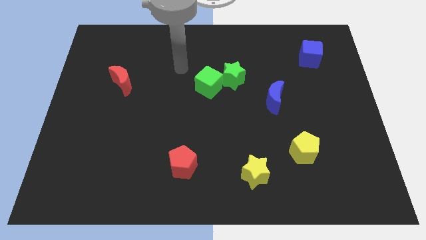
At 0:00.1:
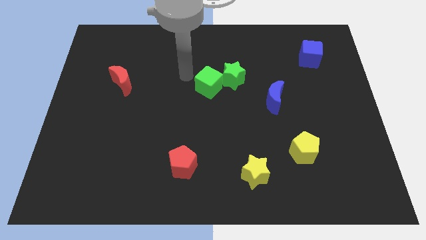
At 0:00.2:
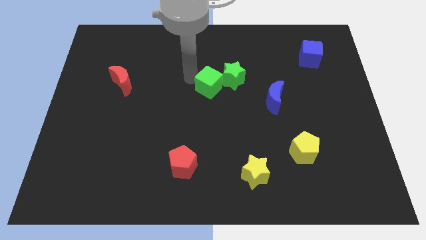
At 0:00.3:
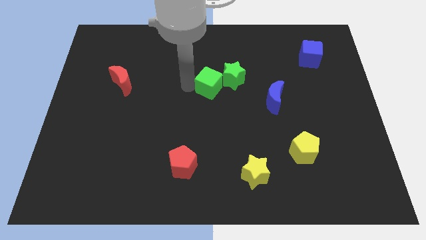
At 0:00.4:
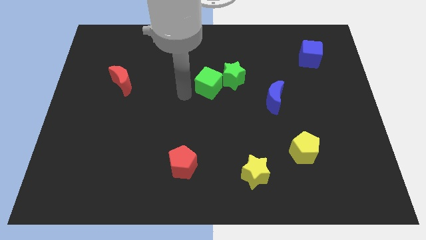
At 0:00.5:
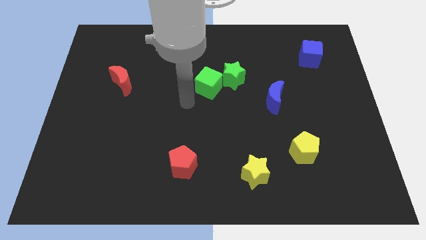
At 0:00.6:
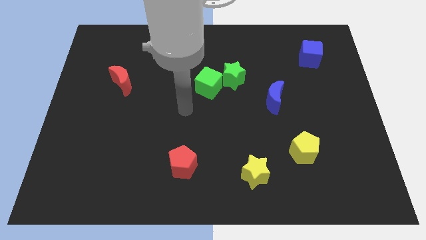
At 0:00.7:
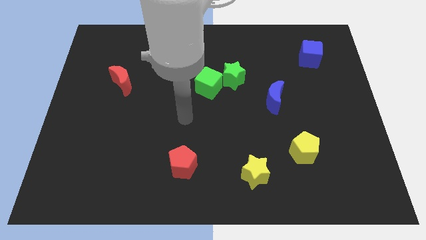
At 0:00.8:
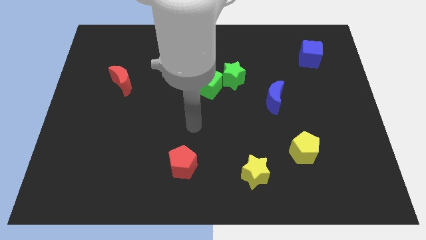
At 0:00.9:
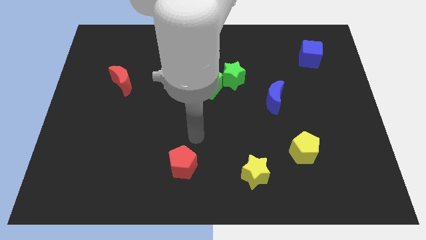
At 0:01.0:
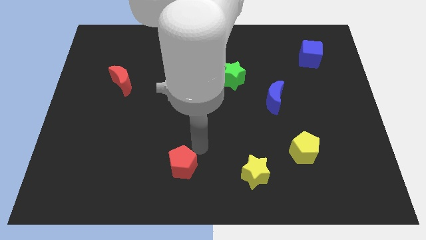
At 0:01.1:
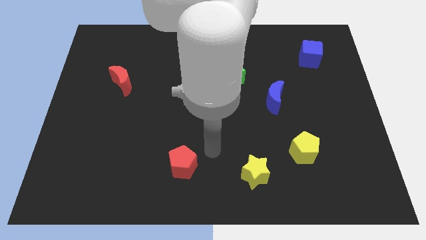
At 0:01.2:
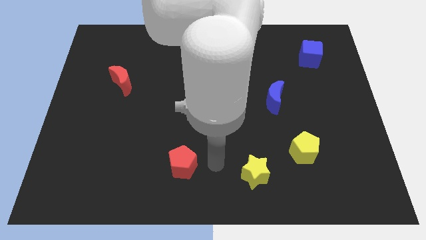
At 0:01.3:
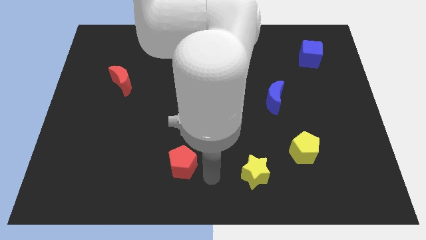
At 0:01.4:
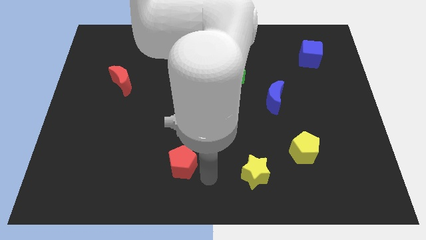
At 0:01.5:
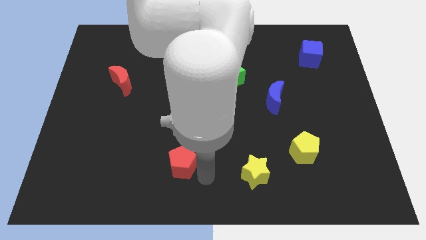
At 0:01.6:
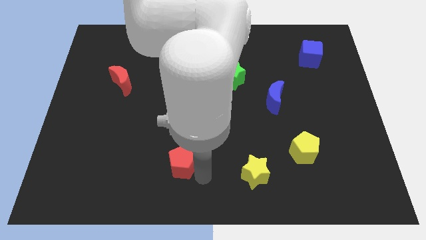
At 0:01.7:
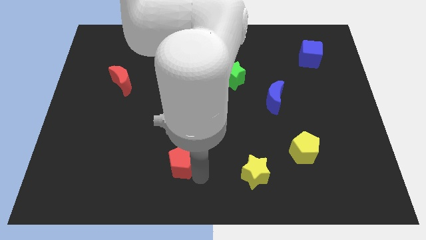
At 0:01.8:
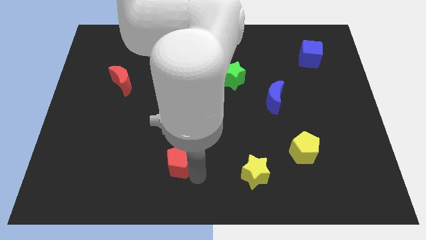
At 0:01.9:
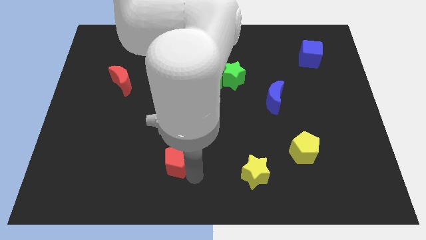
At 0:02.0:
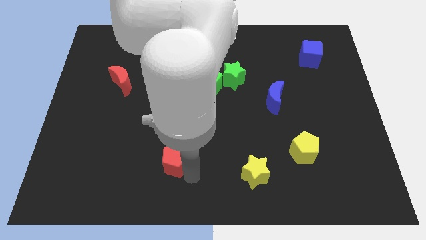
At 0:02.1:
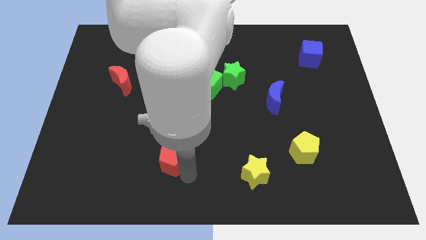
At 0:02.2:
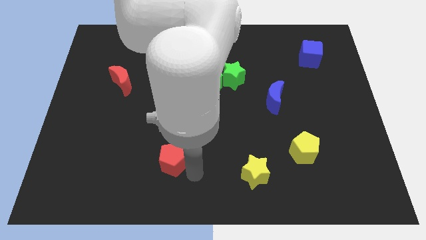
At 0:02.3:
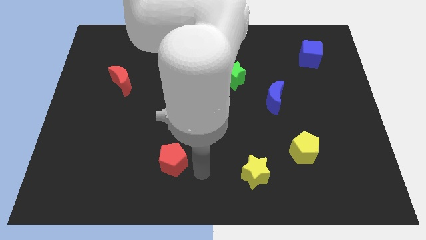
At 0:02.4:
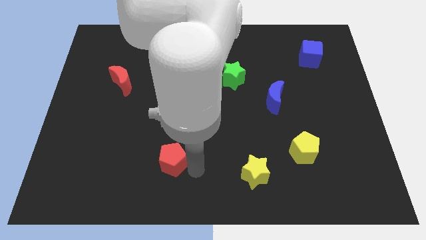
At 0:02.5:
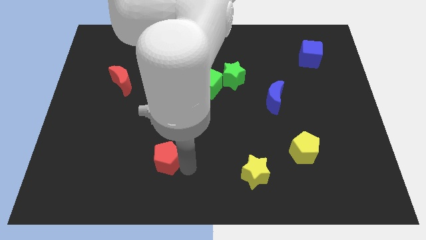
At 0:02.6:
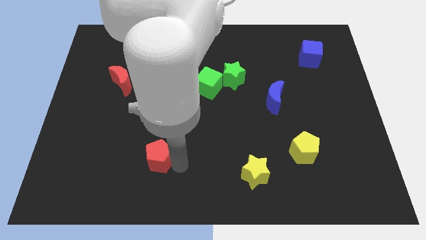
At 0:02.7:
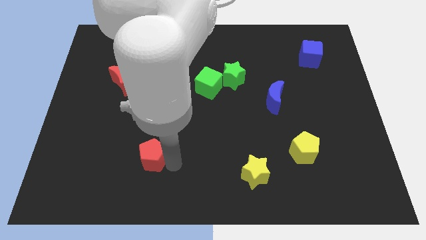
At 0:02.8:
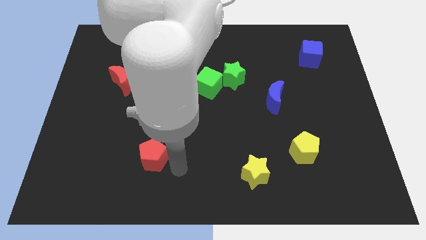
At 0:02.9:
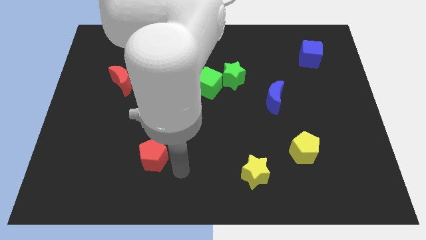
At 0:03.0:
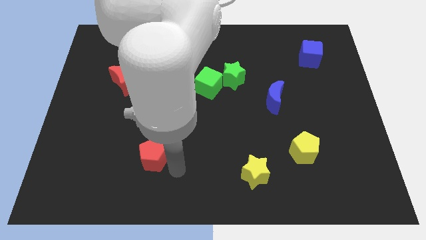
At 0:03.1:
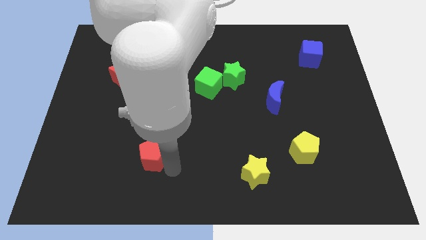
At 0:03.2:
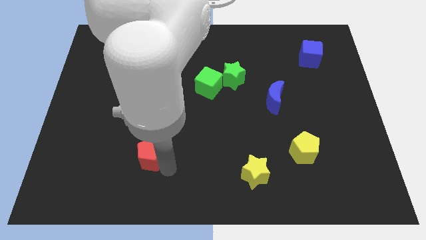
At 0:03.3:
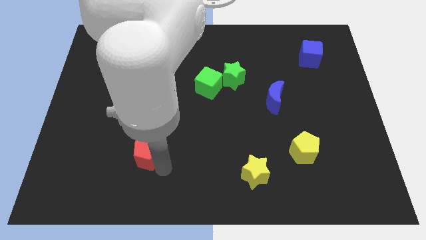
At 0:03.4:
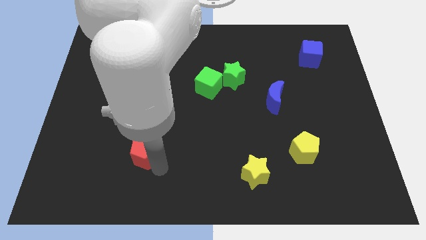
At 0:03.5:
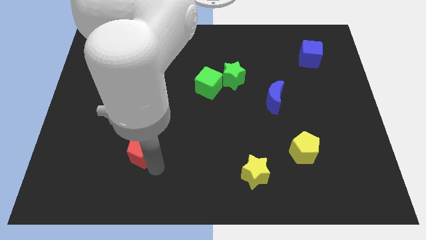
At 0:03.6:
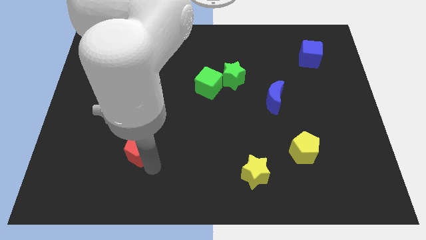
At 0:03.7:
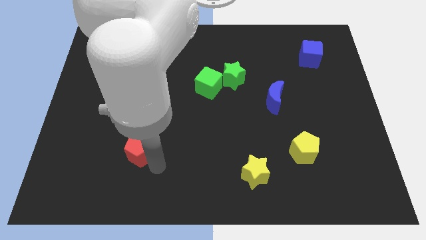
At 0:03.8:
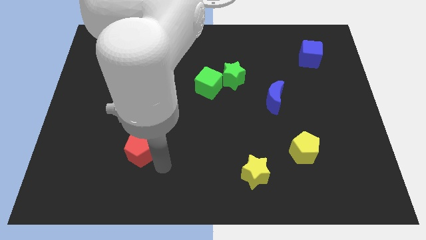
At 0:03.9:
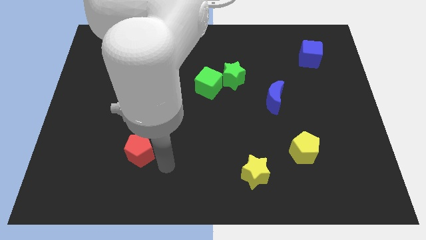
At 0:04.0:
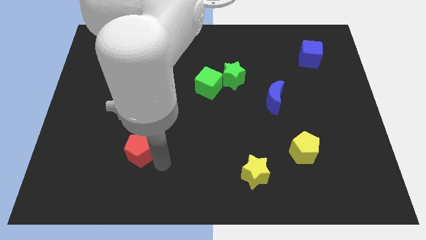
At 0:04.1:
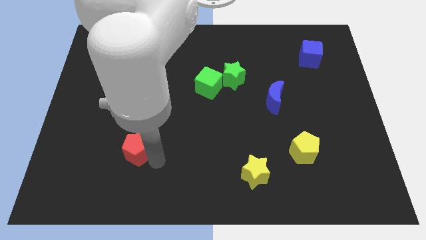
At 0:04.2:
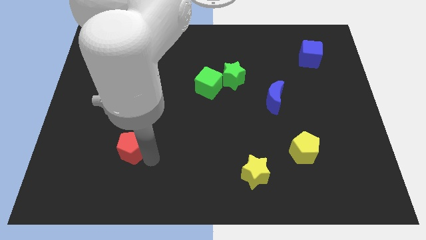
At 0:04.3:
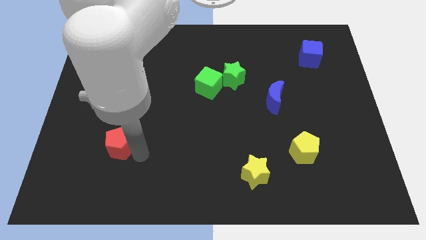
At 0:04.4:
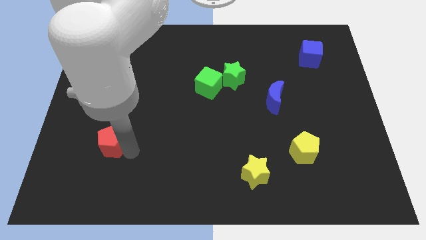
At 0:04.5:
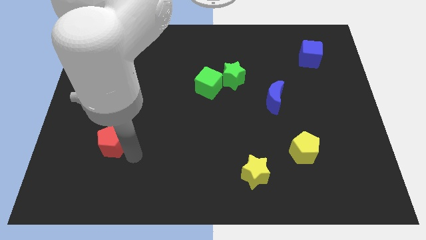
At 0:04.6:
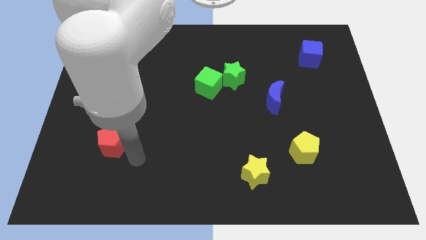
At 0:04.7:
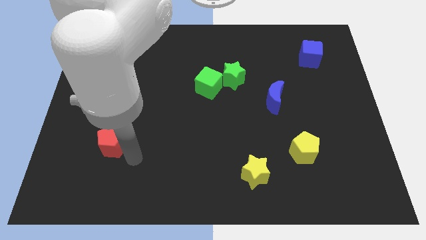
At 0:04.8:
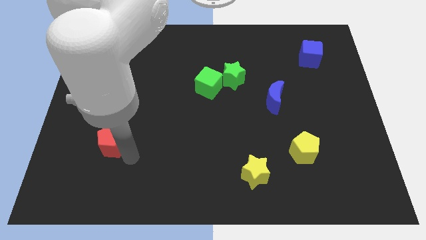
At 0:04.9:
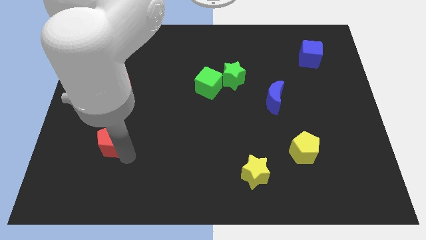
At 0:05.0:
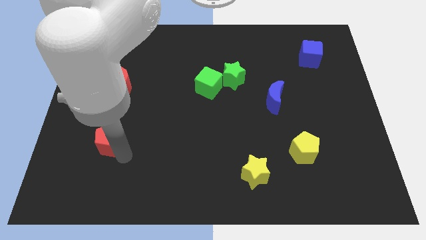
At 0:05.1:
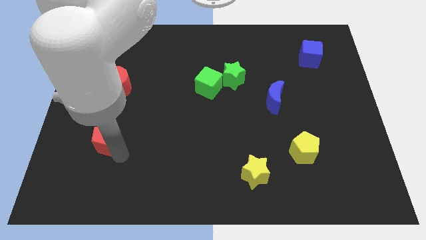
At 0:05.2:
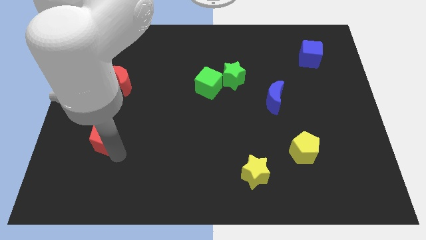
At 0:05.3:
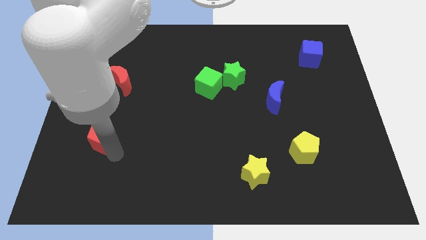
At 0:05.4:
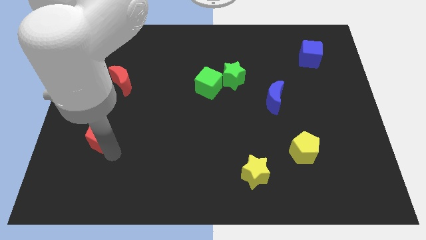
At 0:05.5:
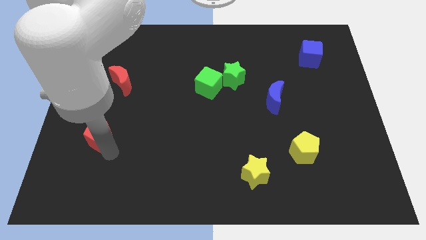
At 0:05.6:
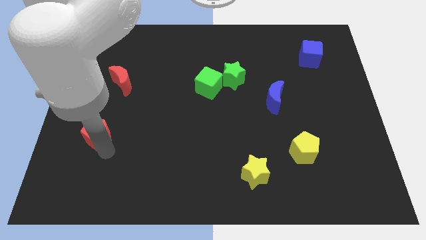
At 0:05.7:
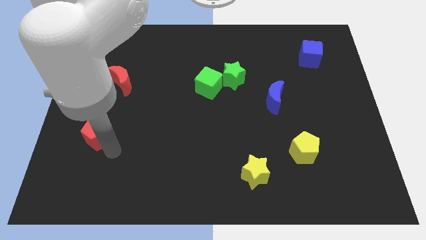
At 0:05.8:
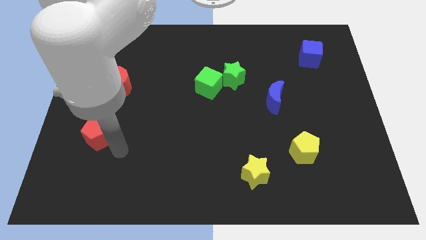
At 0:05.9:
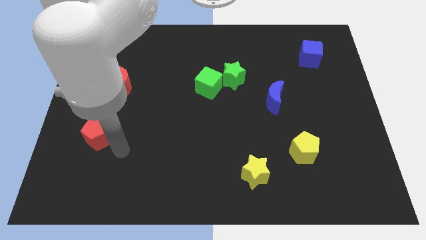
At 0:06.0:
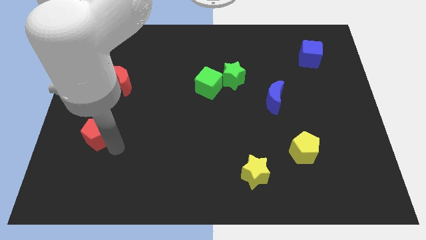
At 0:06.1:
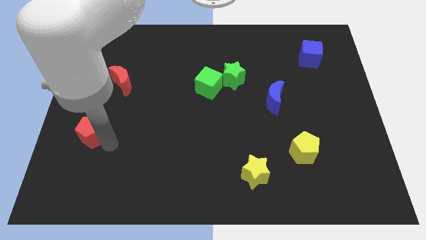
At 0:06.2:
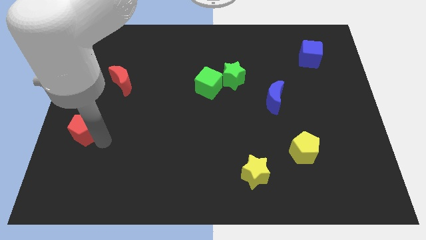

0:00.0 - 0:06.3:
move the red pentagon to the left side of the board

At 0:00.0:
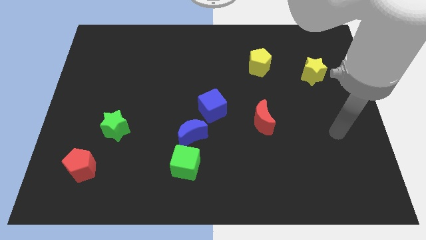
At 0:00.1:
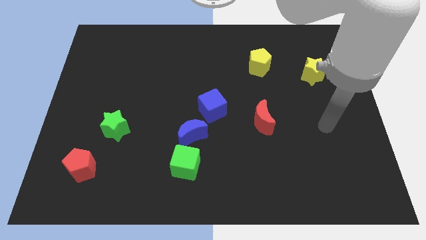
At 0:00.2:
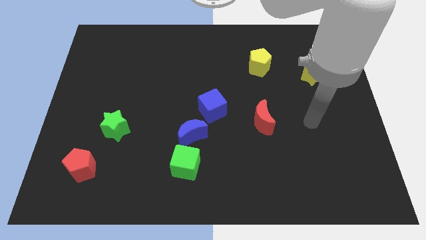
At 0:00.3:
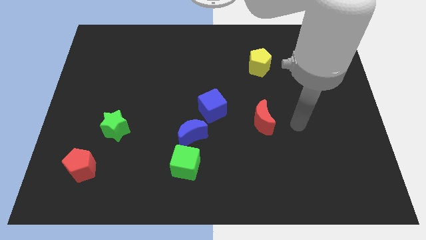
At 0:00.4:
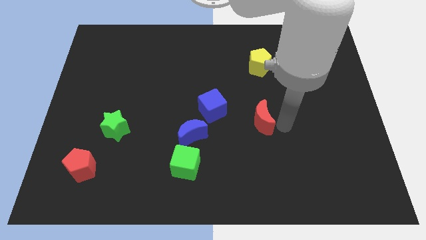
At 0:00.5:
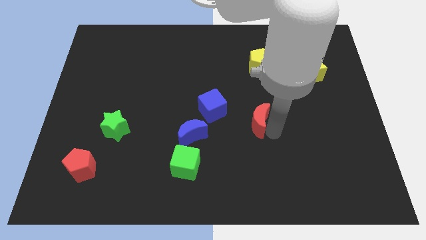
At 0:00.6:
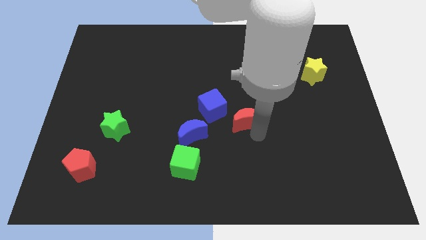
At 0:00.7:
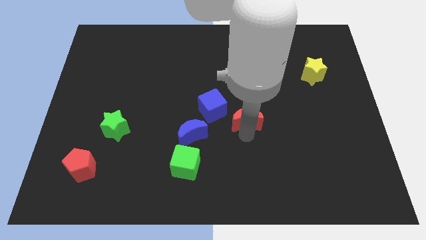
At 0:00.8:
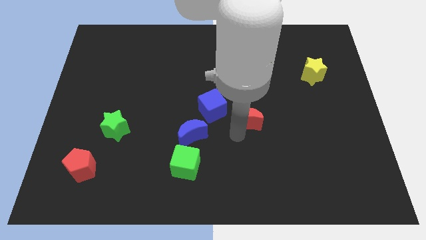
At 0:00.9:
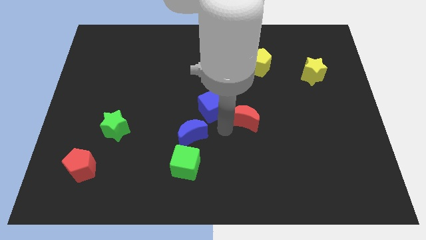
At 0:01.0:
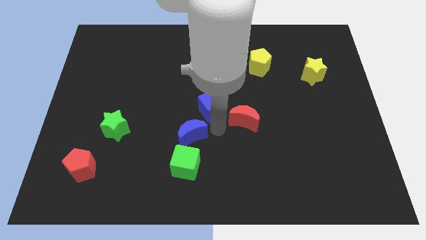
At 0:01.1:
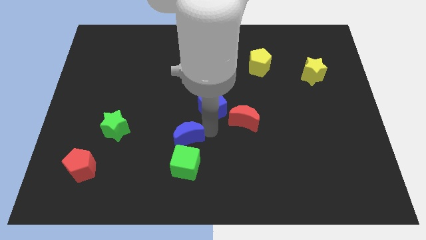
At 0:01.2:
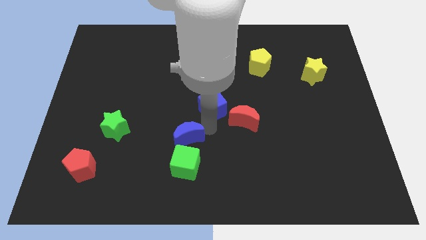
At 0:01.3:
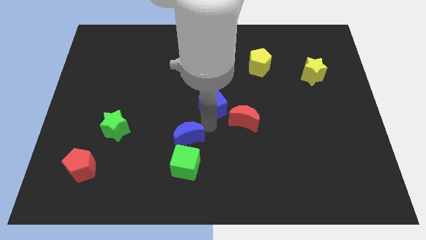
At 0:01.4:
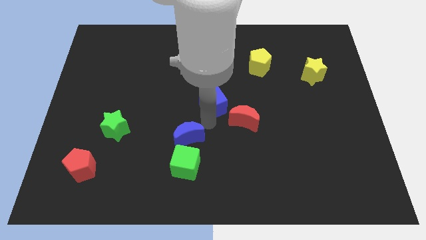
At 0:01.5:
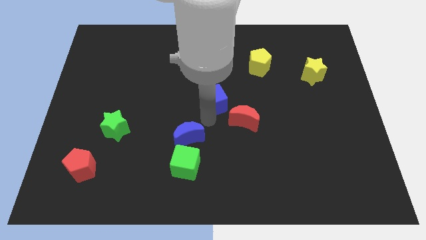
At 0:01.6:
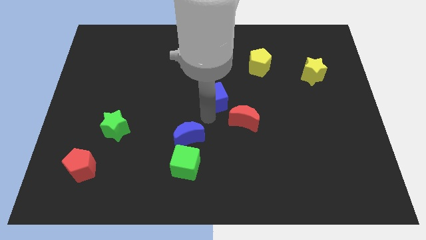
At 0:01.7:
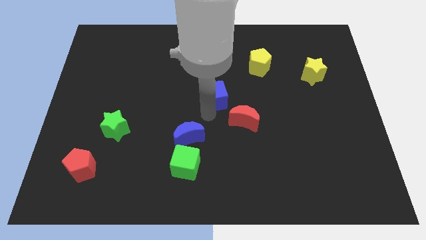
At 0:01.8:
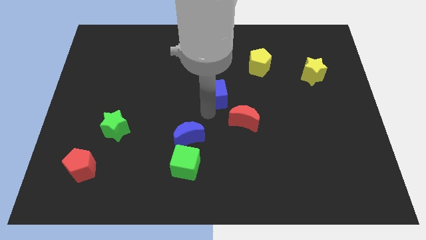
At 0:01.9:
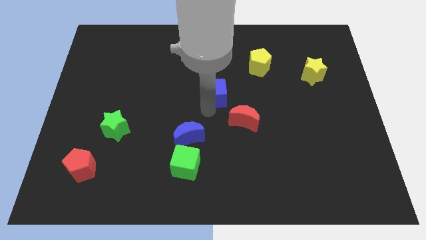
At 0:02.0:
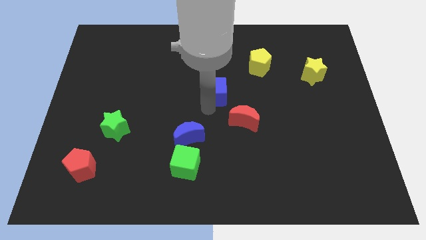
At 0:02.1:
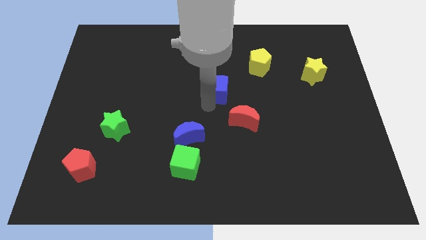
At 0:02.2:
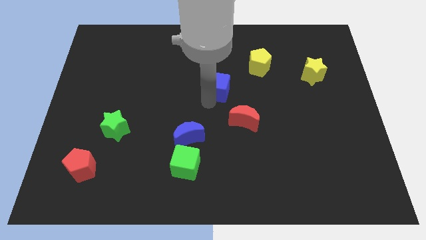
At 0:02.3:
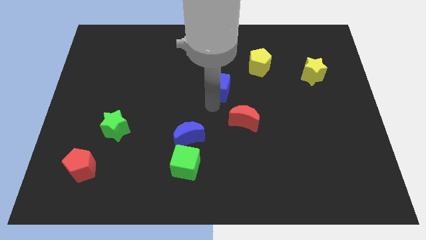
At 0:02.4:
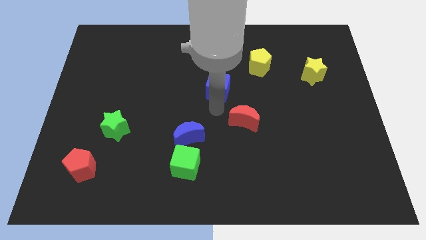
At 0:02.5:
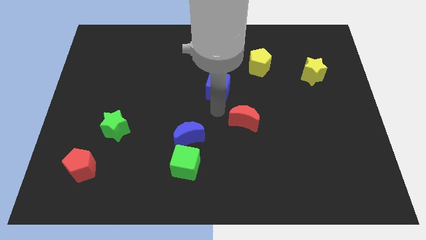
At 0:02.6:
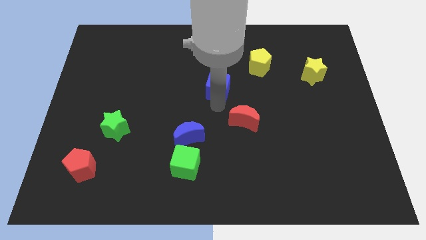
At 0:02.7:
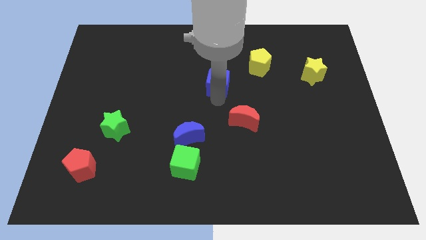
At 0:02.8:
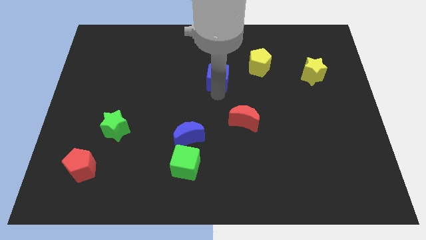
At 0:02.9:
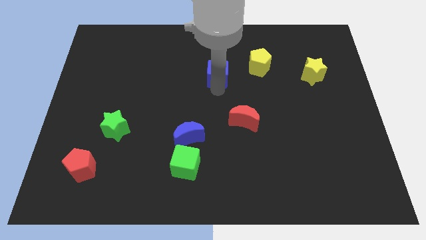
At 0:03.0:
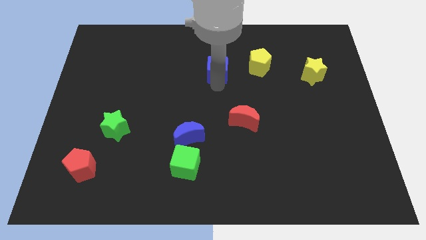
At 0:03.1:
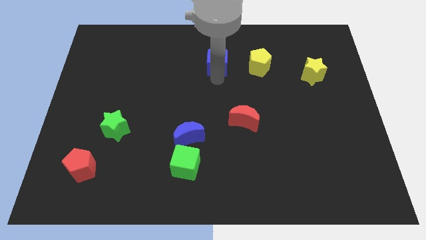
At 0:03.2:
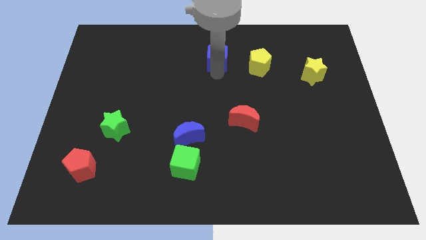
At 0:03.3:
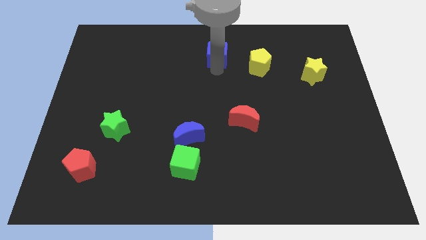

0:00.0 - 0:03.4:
slide the blue cube to the towards your base
